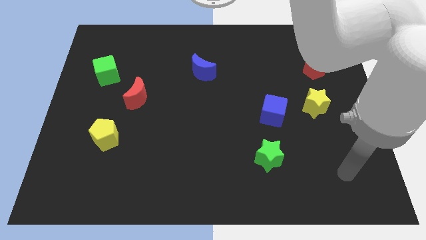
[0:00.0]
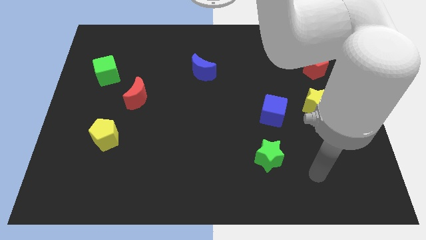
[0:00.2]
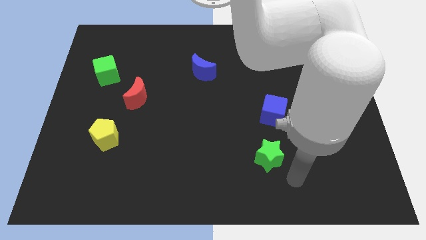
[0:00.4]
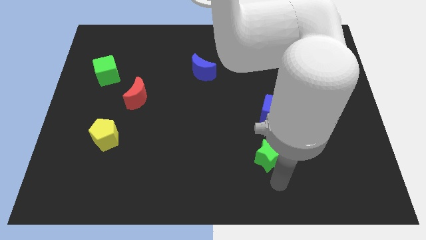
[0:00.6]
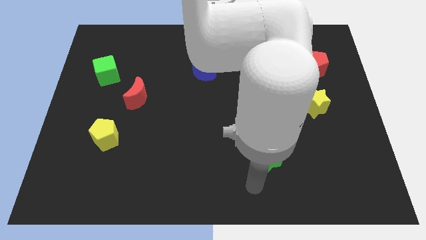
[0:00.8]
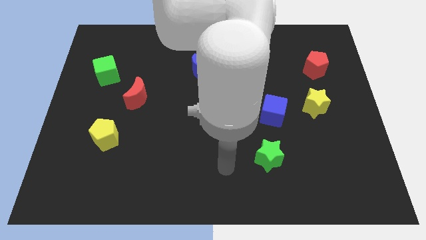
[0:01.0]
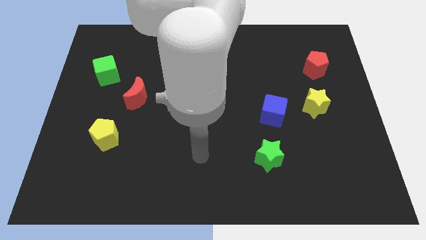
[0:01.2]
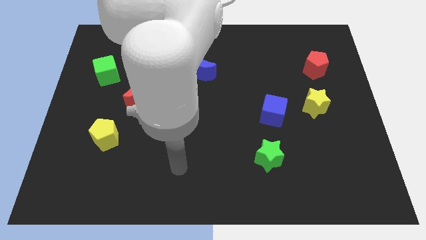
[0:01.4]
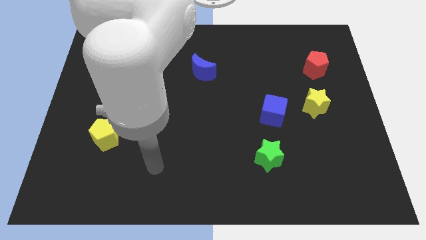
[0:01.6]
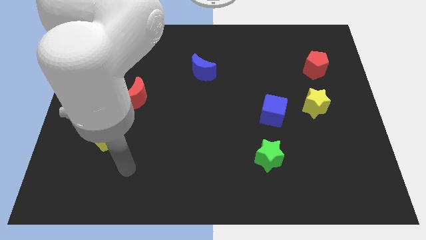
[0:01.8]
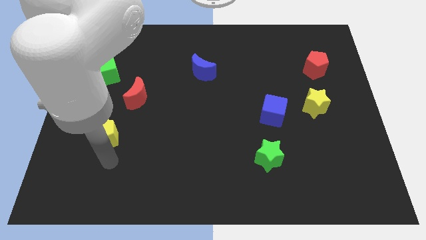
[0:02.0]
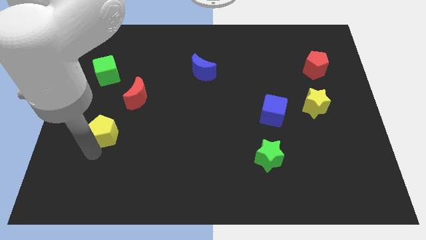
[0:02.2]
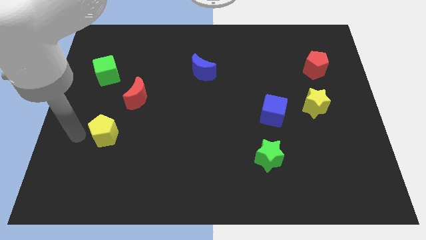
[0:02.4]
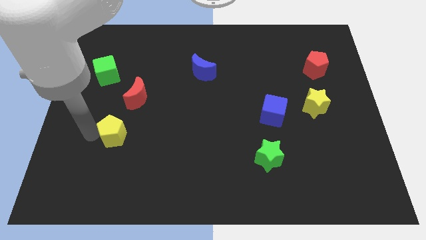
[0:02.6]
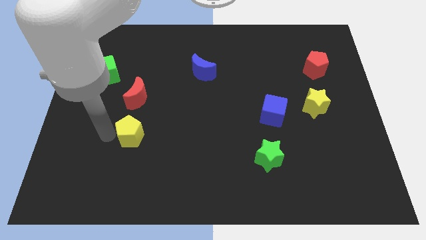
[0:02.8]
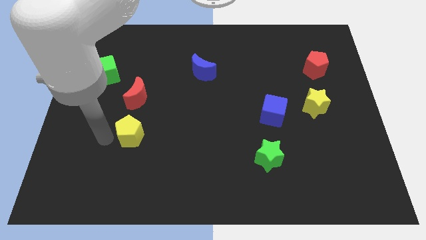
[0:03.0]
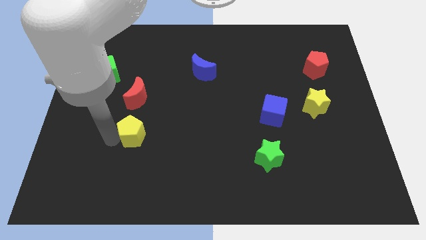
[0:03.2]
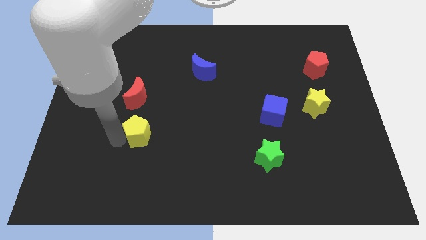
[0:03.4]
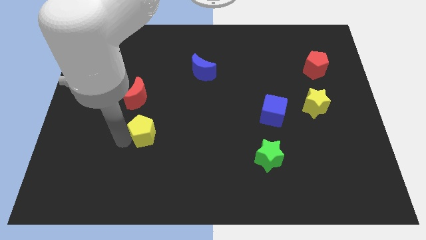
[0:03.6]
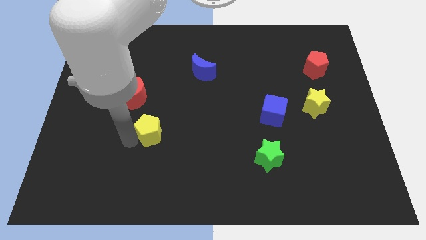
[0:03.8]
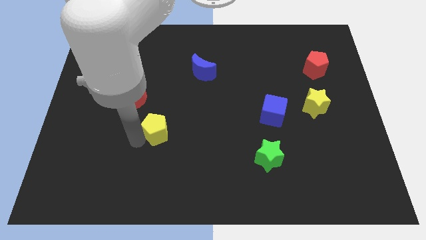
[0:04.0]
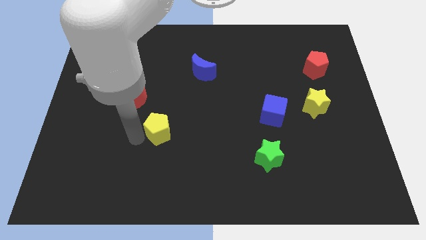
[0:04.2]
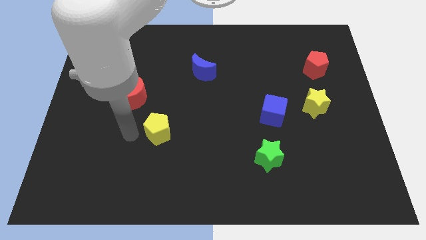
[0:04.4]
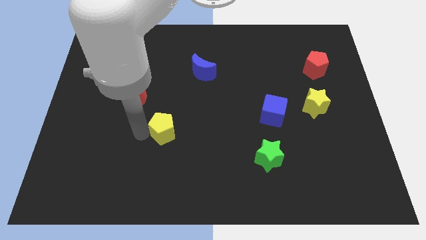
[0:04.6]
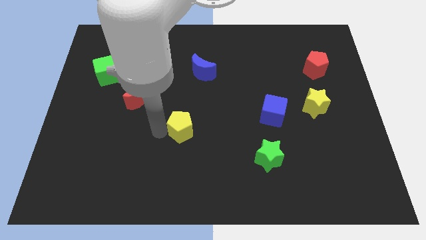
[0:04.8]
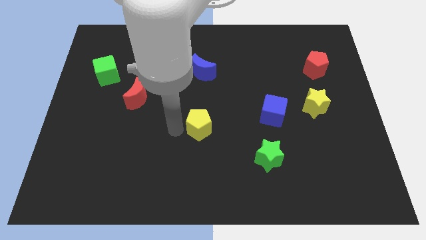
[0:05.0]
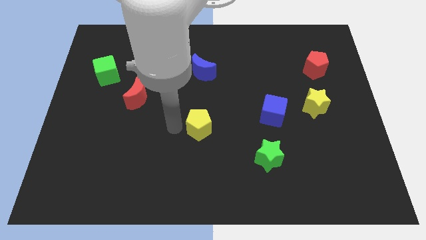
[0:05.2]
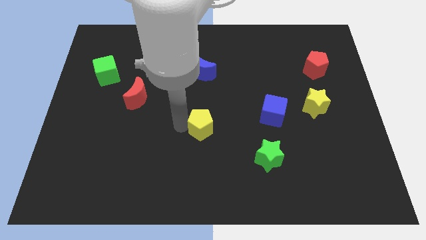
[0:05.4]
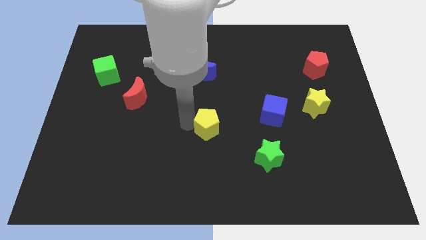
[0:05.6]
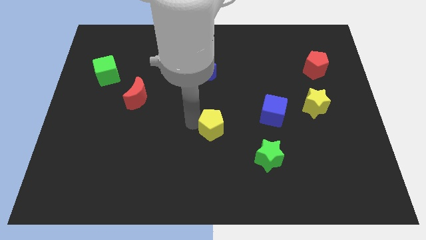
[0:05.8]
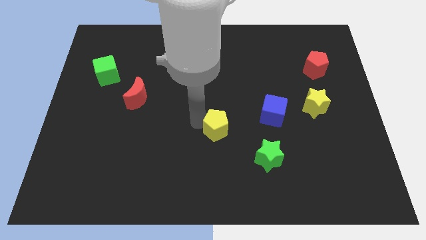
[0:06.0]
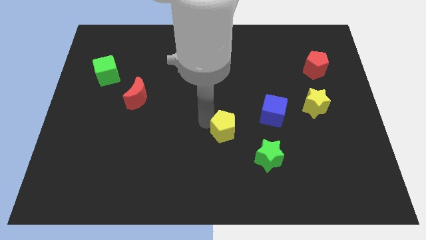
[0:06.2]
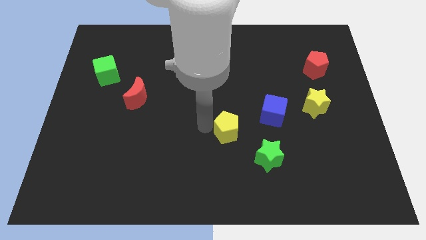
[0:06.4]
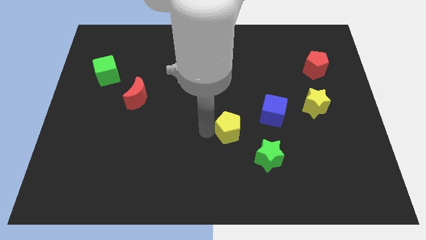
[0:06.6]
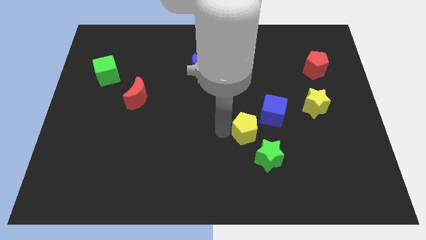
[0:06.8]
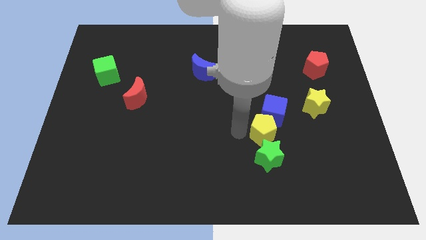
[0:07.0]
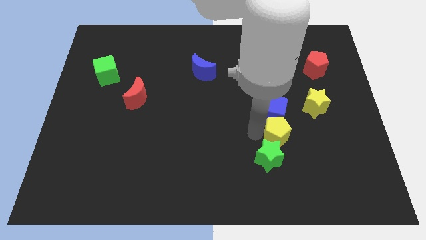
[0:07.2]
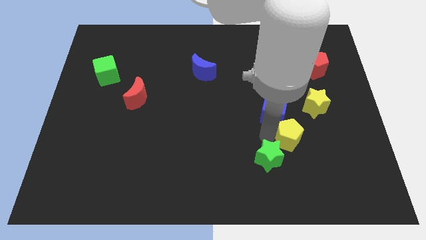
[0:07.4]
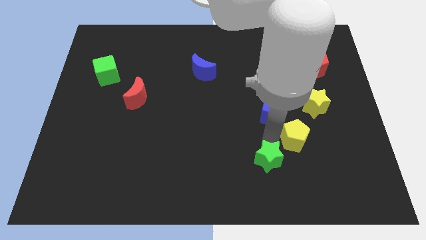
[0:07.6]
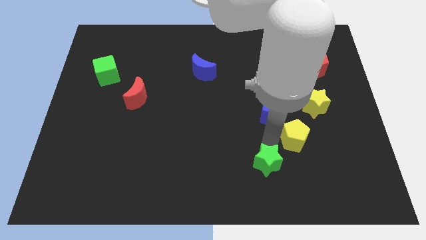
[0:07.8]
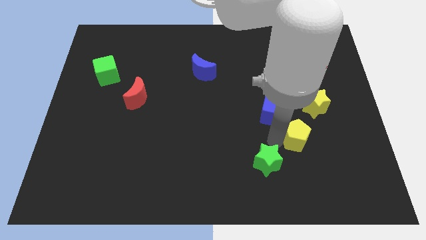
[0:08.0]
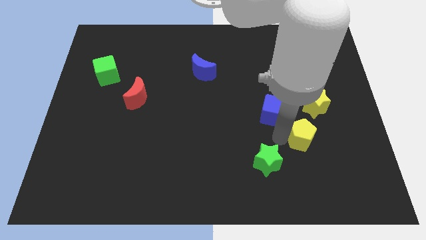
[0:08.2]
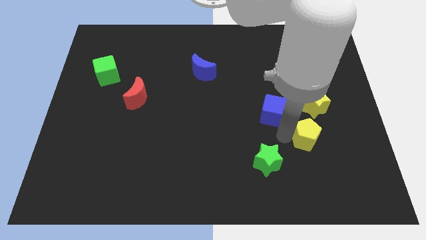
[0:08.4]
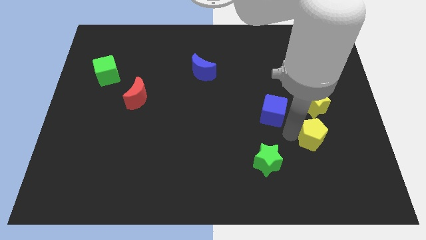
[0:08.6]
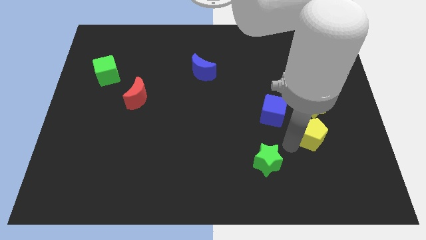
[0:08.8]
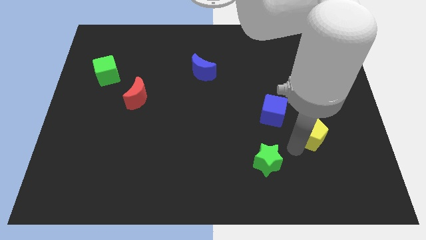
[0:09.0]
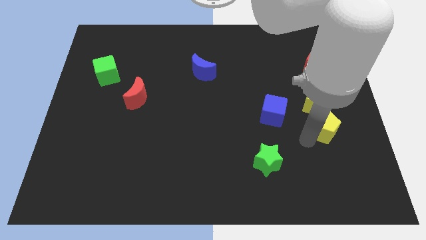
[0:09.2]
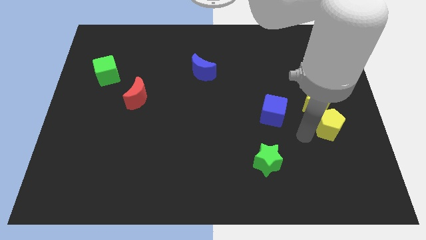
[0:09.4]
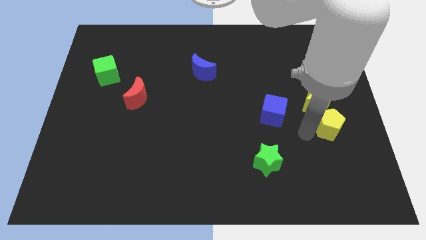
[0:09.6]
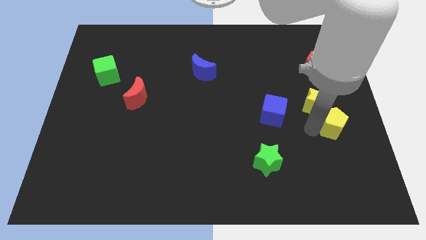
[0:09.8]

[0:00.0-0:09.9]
put the yellow pentagon to the right side of the board

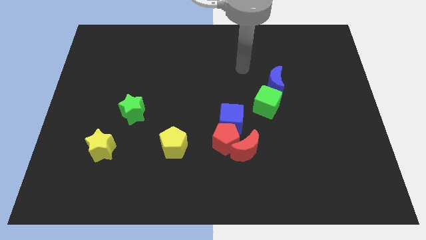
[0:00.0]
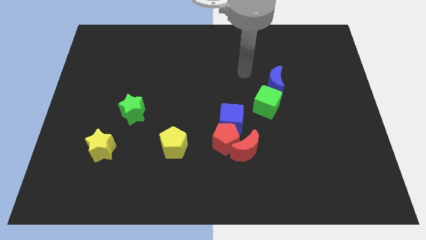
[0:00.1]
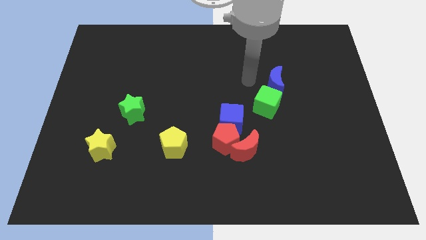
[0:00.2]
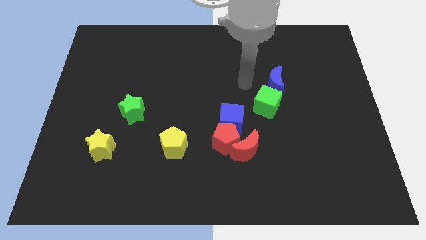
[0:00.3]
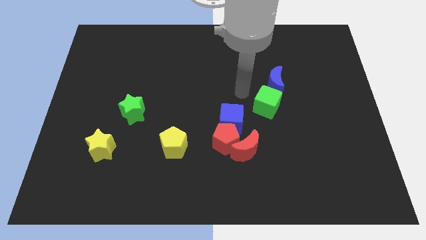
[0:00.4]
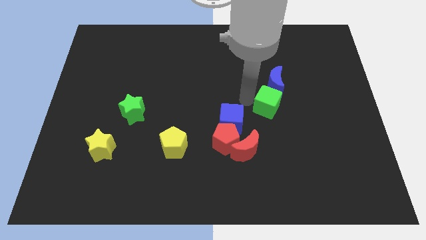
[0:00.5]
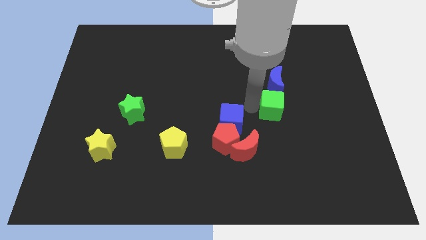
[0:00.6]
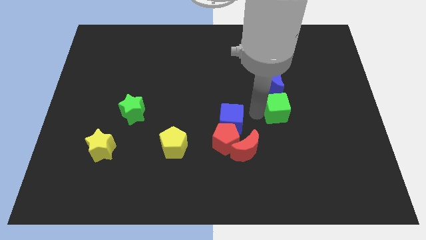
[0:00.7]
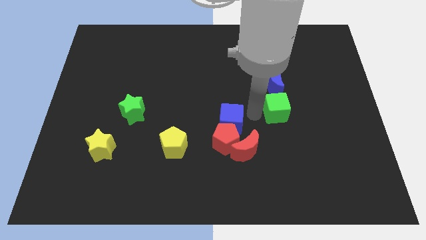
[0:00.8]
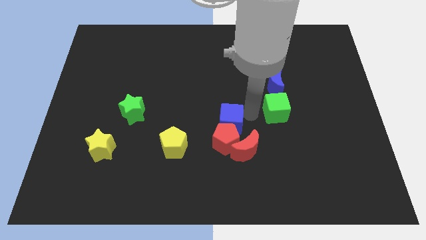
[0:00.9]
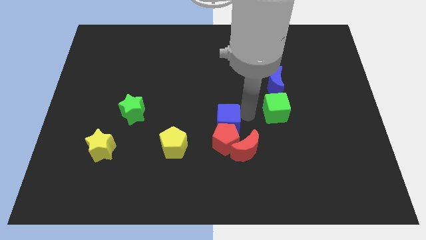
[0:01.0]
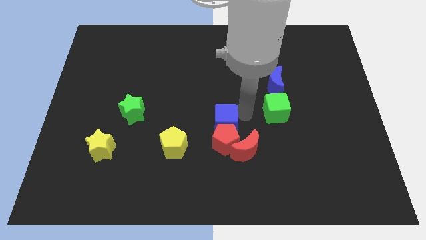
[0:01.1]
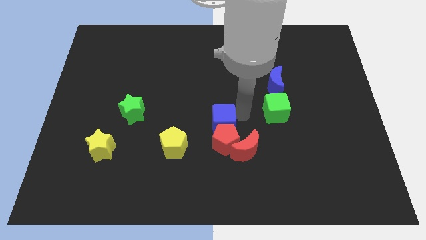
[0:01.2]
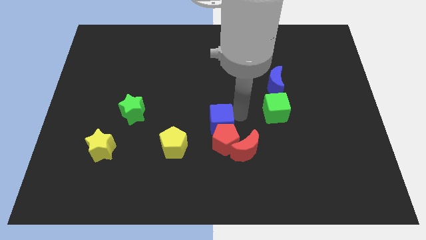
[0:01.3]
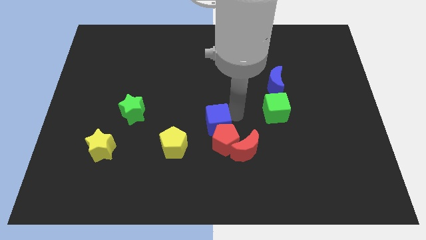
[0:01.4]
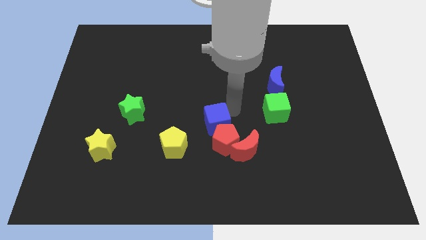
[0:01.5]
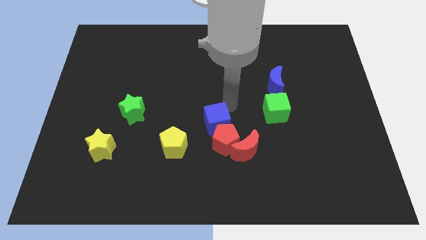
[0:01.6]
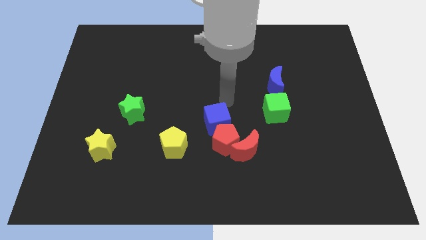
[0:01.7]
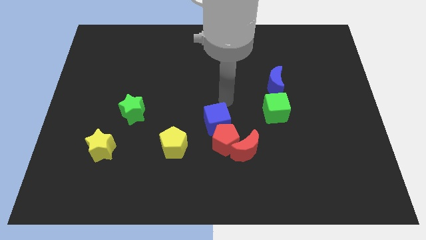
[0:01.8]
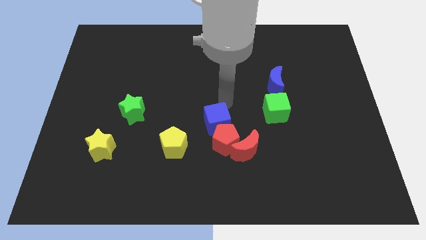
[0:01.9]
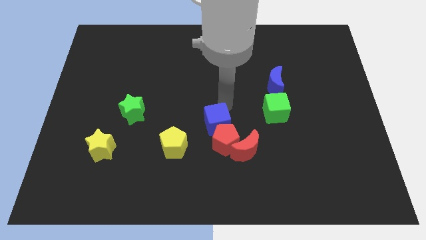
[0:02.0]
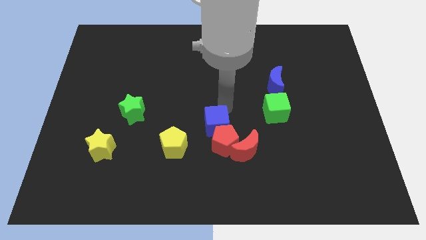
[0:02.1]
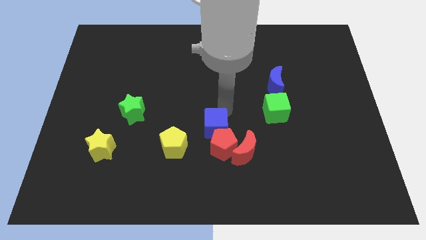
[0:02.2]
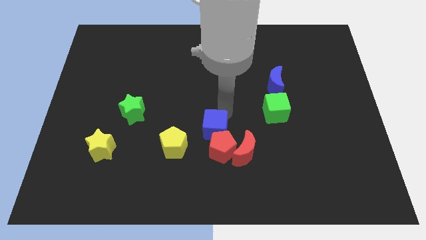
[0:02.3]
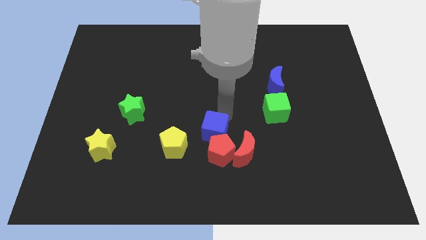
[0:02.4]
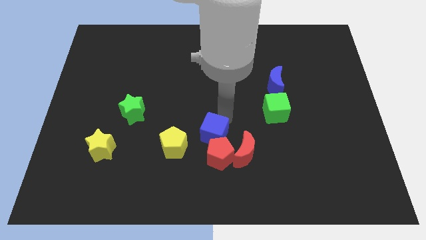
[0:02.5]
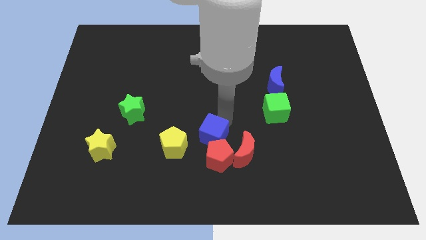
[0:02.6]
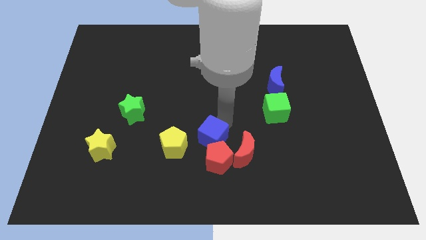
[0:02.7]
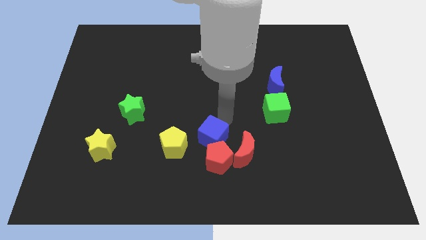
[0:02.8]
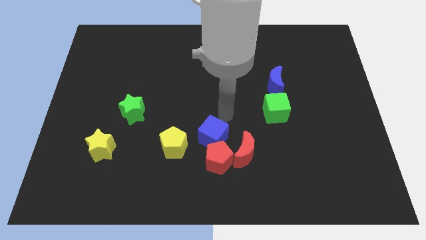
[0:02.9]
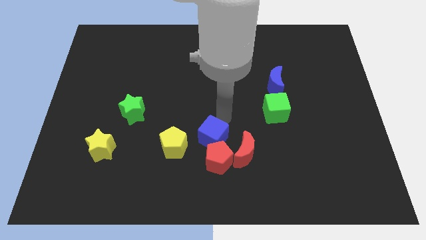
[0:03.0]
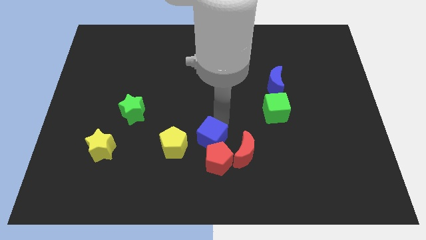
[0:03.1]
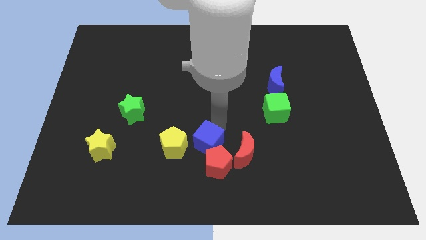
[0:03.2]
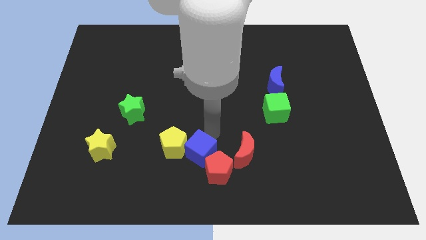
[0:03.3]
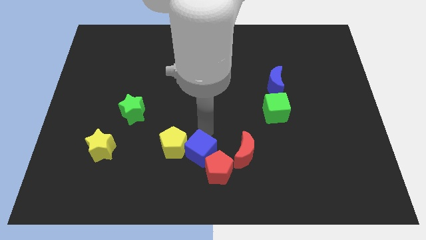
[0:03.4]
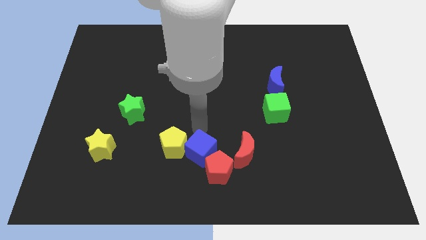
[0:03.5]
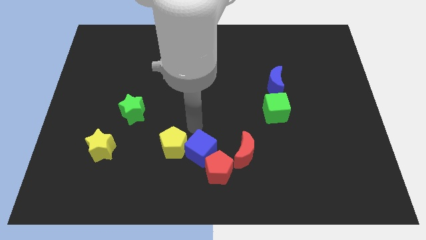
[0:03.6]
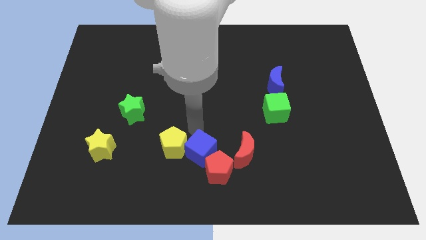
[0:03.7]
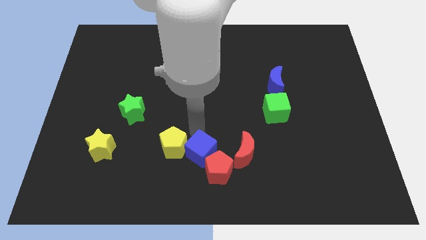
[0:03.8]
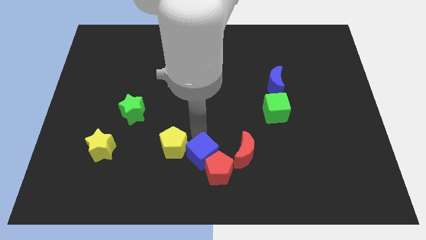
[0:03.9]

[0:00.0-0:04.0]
push the blue cube to the bottom
